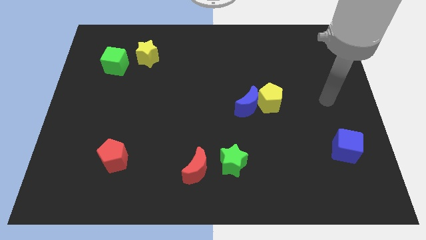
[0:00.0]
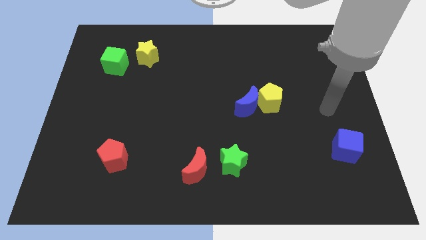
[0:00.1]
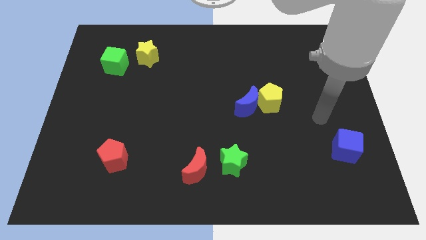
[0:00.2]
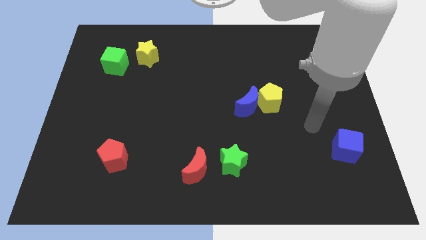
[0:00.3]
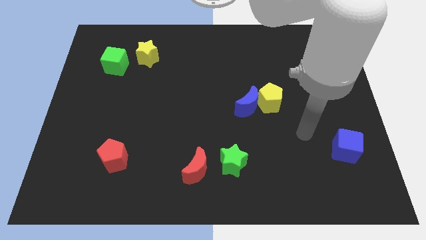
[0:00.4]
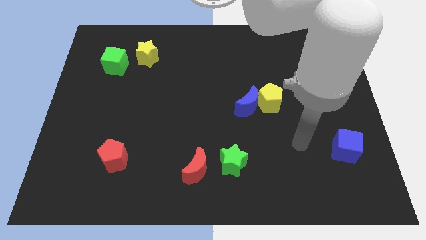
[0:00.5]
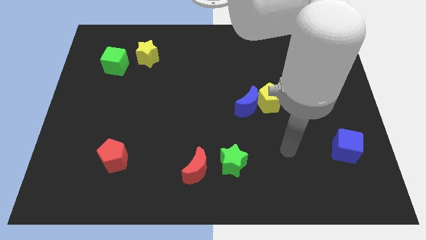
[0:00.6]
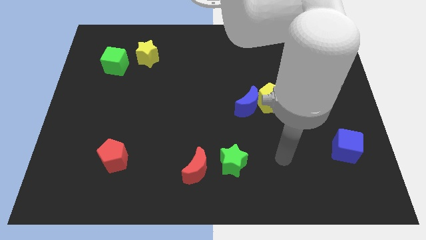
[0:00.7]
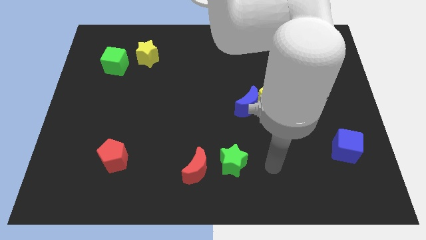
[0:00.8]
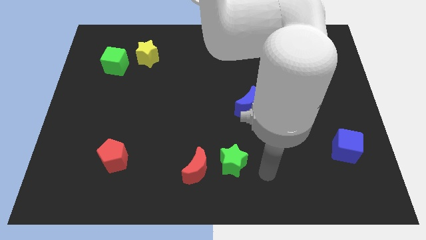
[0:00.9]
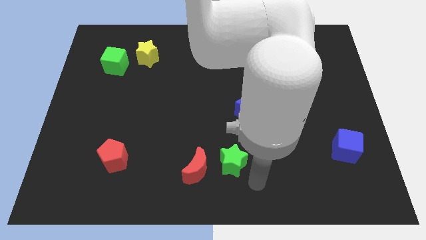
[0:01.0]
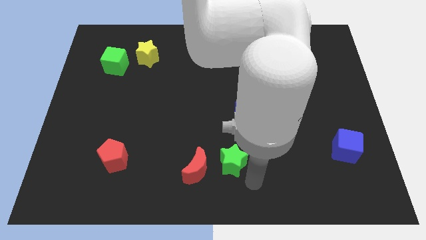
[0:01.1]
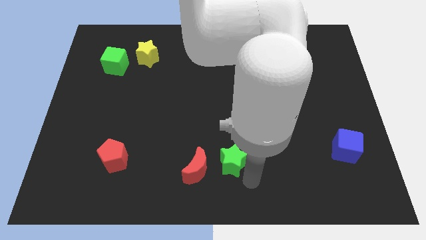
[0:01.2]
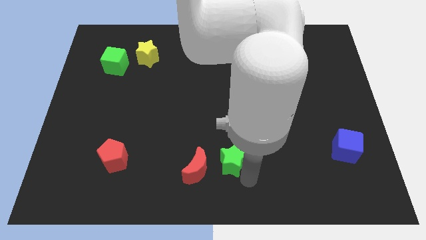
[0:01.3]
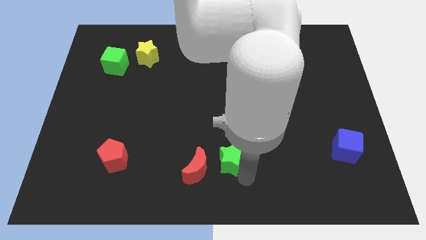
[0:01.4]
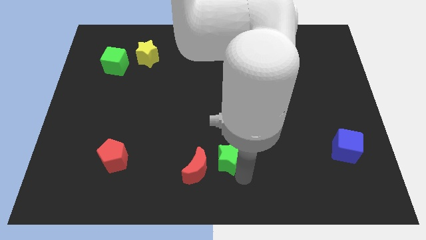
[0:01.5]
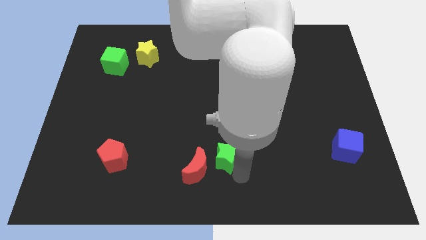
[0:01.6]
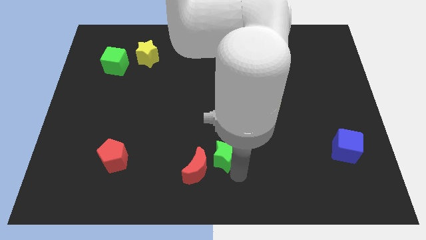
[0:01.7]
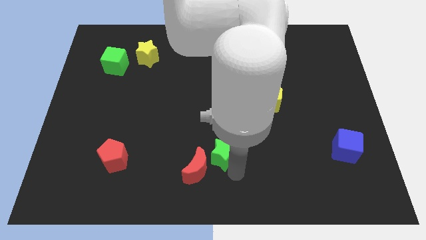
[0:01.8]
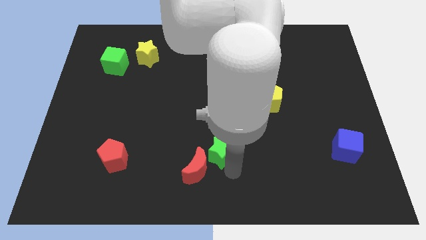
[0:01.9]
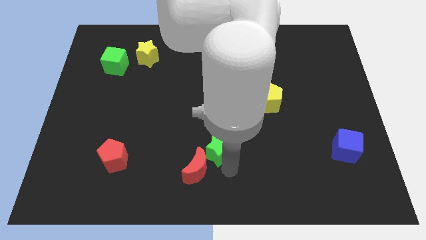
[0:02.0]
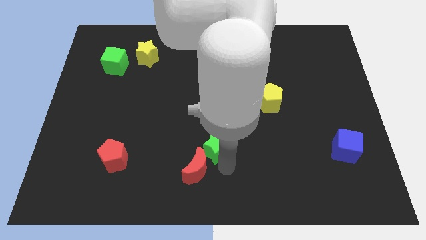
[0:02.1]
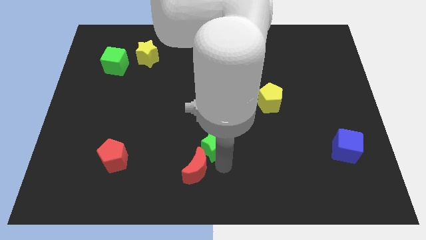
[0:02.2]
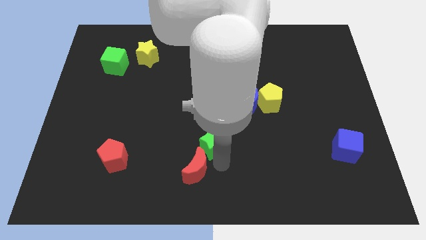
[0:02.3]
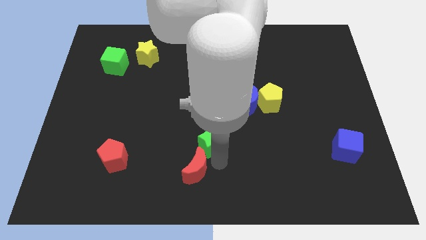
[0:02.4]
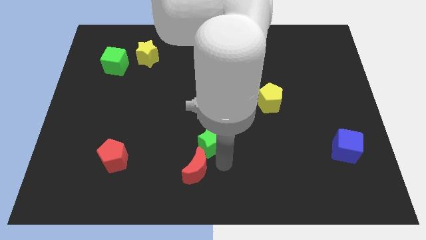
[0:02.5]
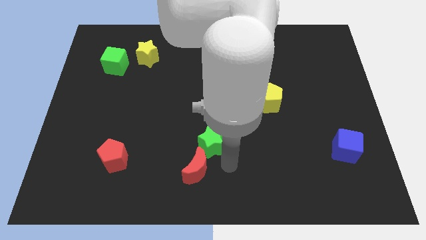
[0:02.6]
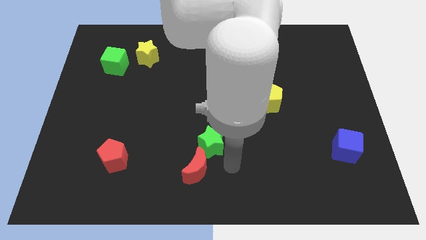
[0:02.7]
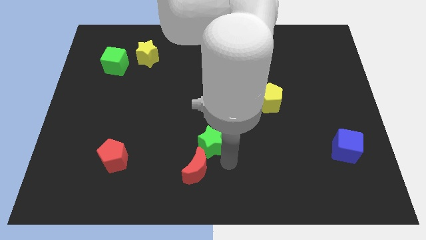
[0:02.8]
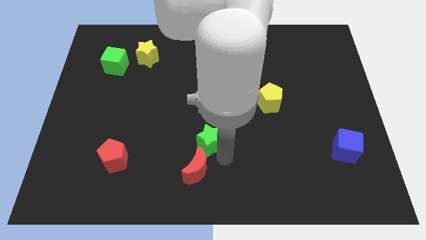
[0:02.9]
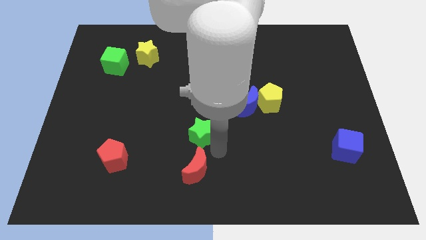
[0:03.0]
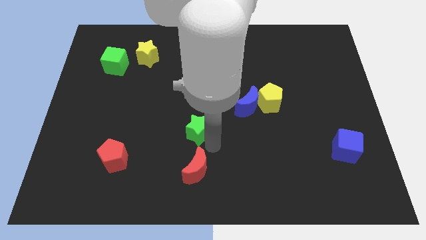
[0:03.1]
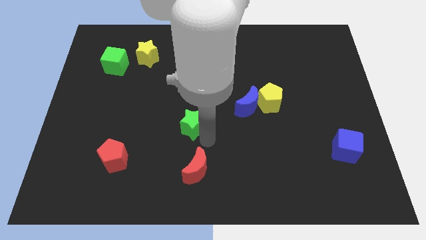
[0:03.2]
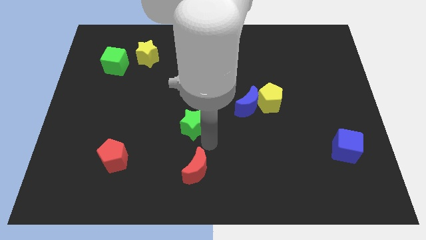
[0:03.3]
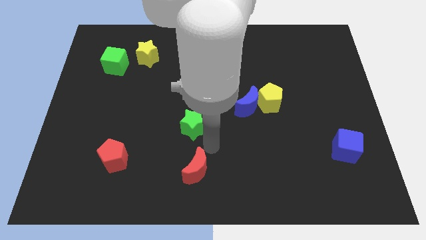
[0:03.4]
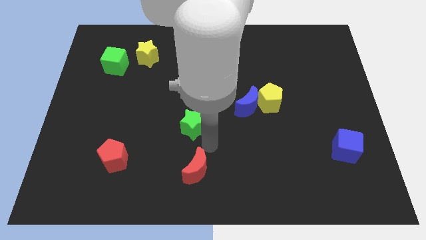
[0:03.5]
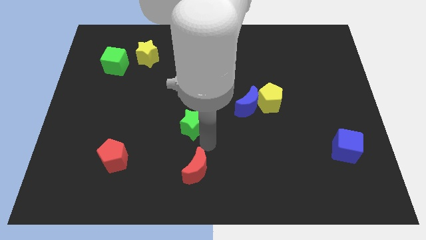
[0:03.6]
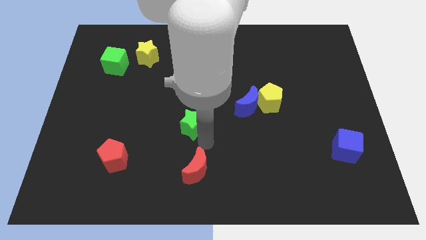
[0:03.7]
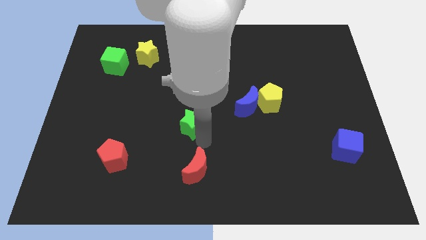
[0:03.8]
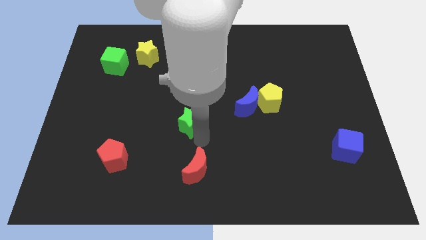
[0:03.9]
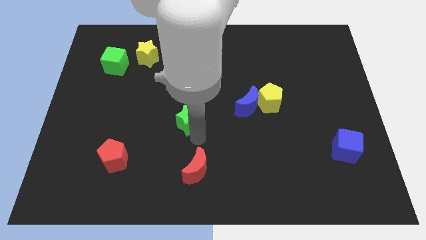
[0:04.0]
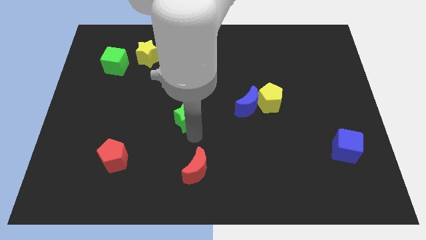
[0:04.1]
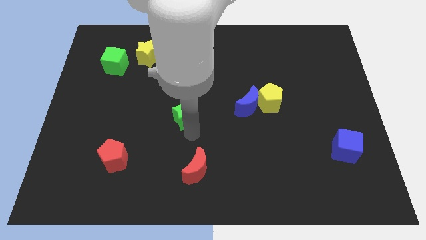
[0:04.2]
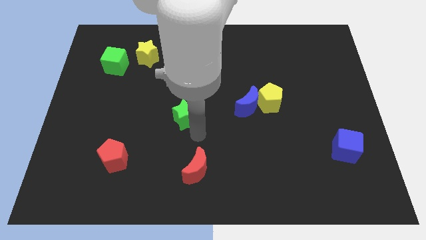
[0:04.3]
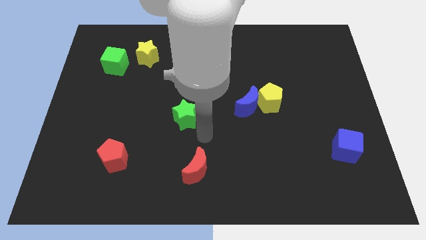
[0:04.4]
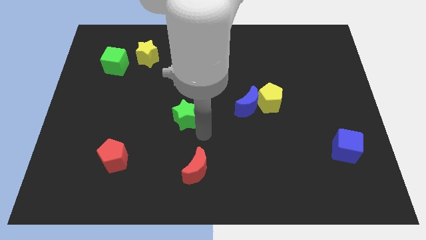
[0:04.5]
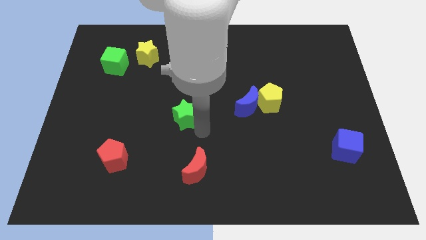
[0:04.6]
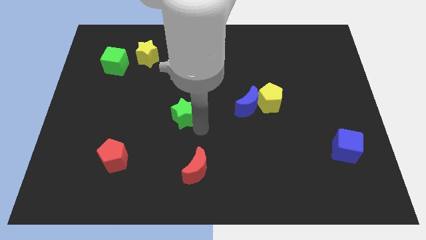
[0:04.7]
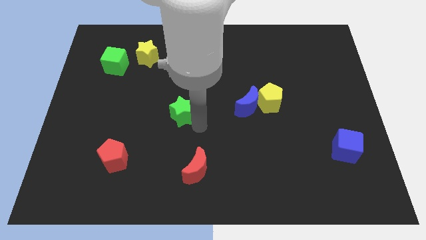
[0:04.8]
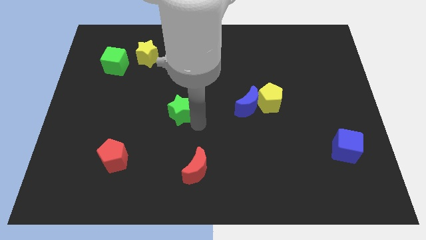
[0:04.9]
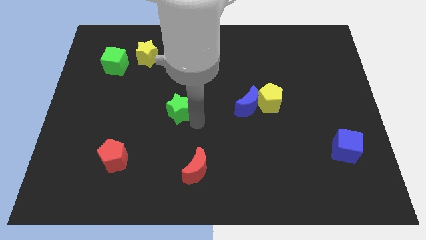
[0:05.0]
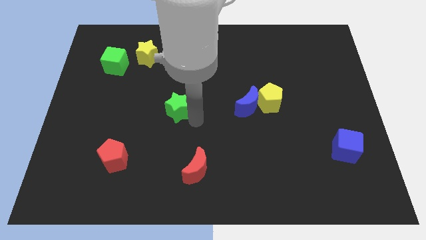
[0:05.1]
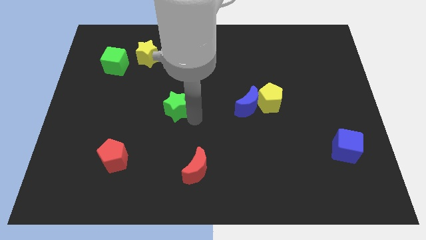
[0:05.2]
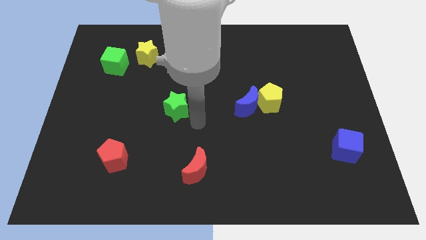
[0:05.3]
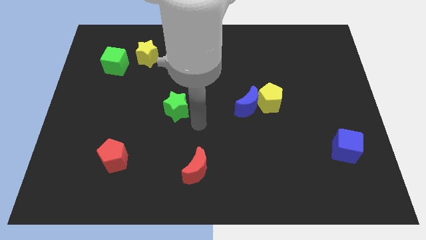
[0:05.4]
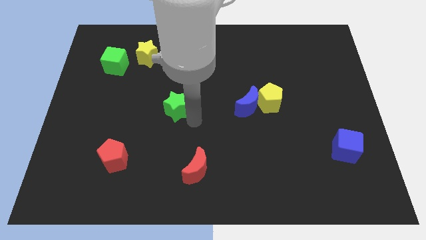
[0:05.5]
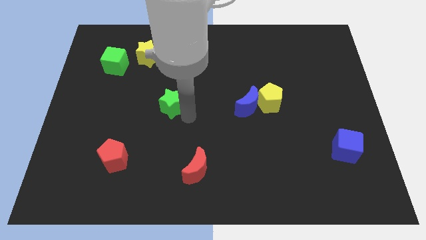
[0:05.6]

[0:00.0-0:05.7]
move the green star diagonally up and left

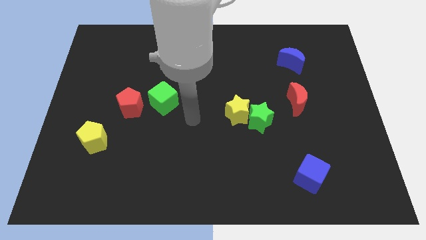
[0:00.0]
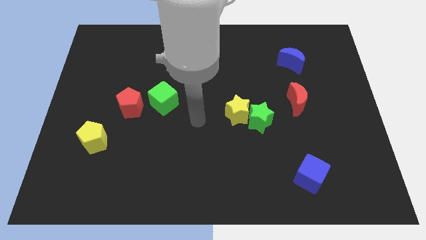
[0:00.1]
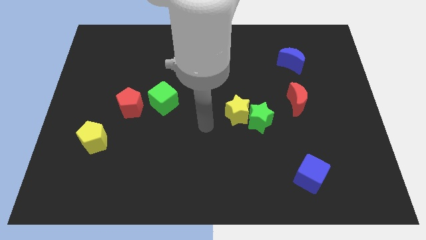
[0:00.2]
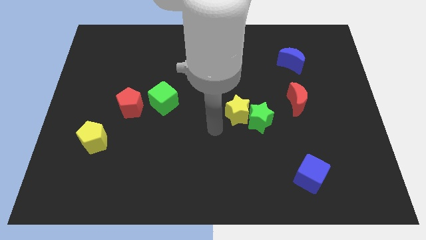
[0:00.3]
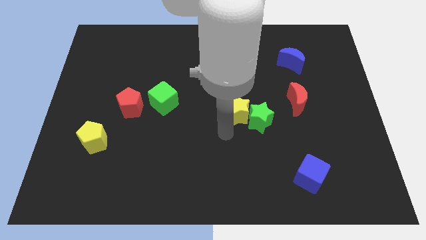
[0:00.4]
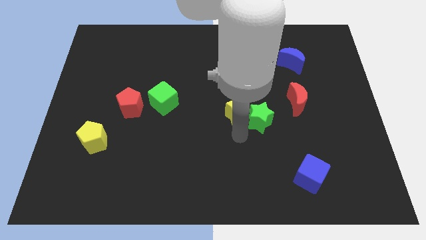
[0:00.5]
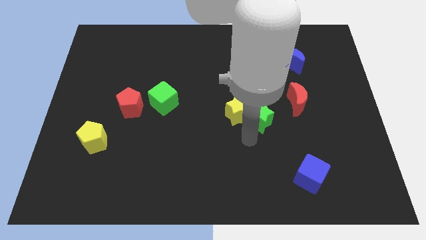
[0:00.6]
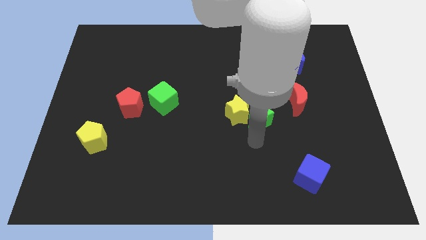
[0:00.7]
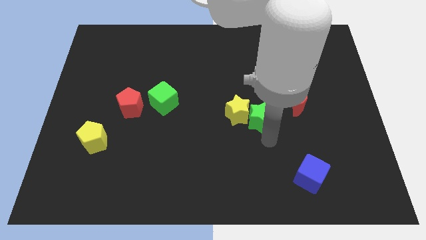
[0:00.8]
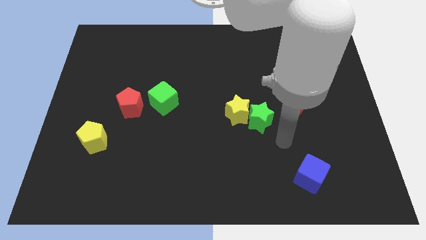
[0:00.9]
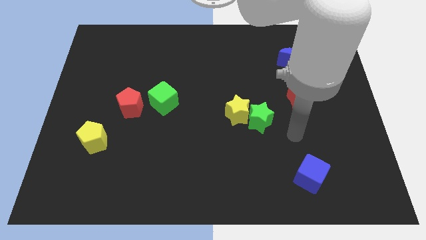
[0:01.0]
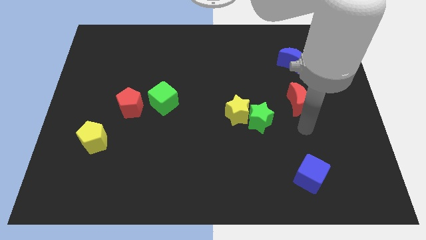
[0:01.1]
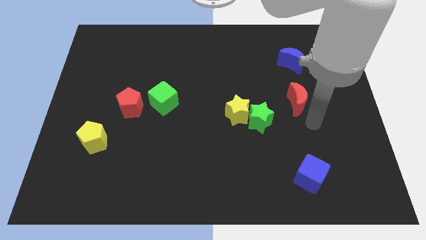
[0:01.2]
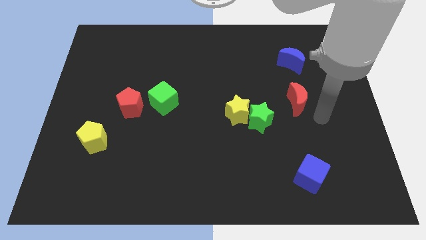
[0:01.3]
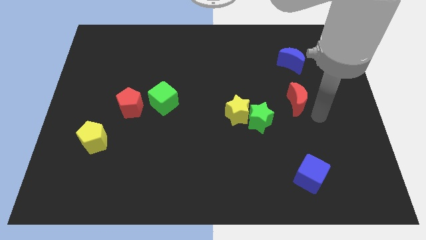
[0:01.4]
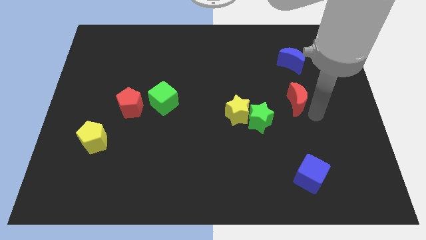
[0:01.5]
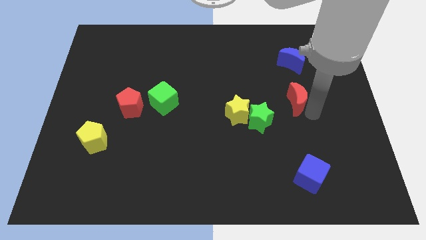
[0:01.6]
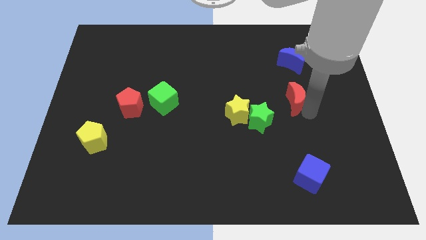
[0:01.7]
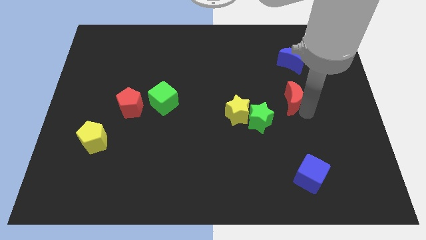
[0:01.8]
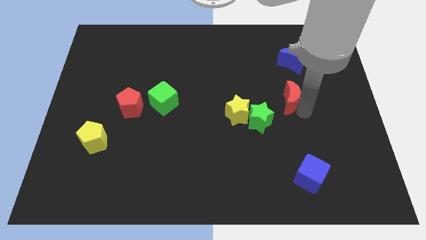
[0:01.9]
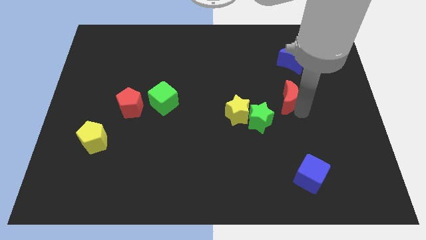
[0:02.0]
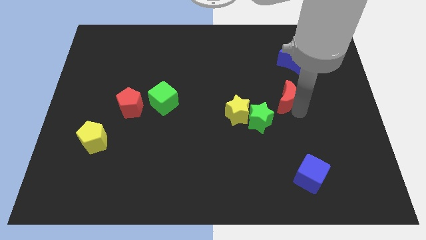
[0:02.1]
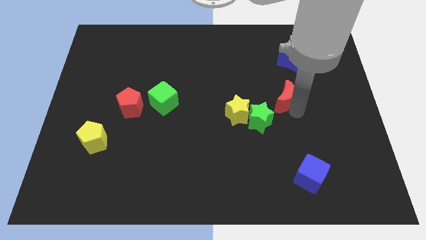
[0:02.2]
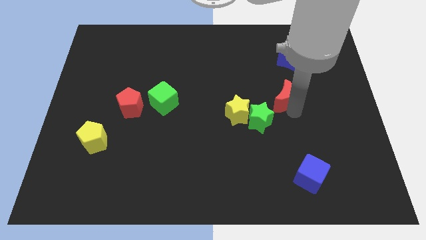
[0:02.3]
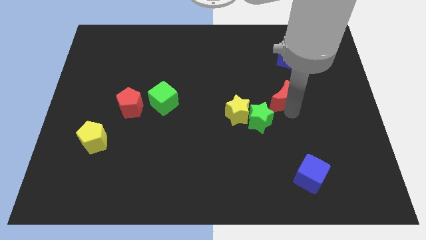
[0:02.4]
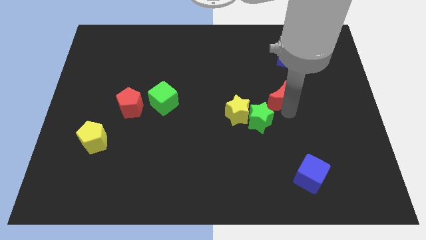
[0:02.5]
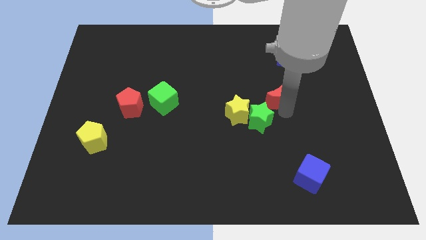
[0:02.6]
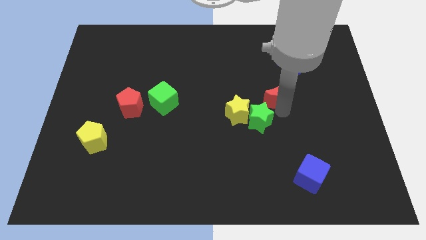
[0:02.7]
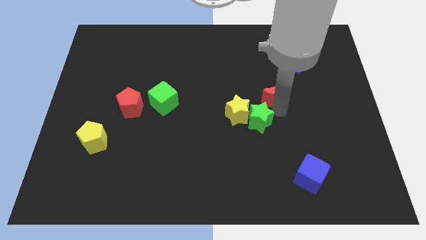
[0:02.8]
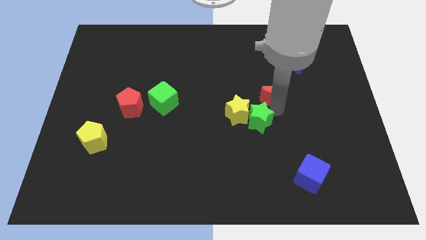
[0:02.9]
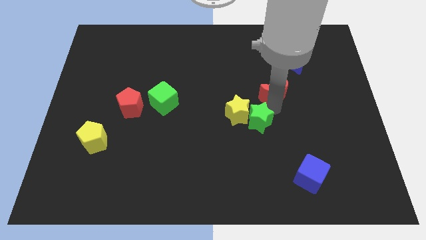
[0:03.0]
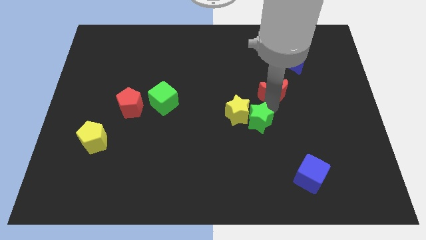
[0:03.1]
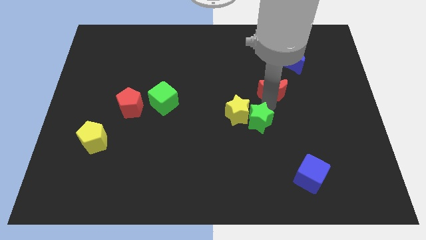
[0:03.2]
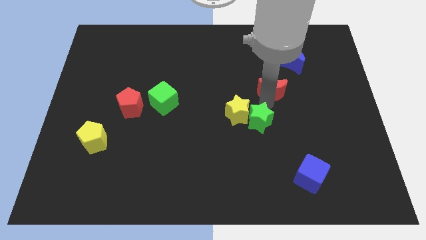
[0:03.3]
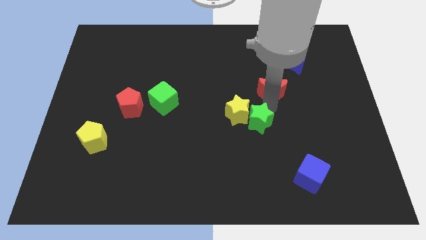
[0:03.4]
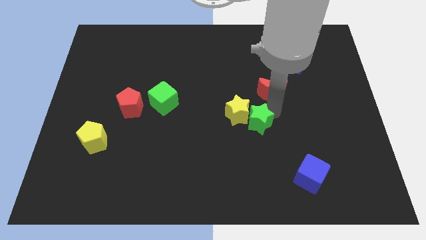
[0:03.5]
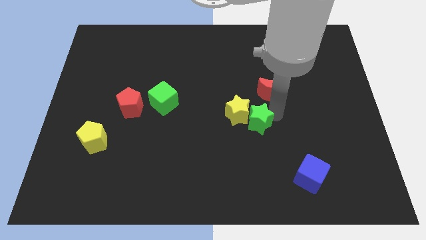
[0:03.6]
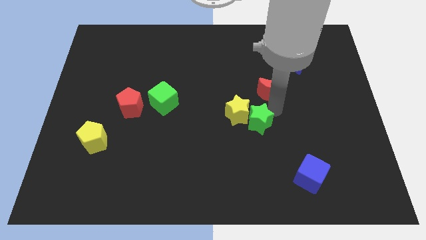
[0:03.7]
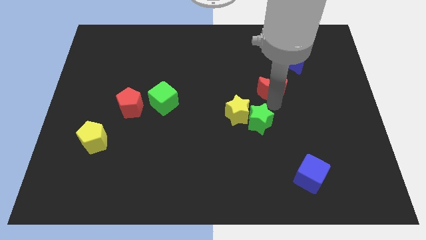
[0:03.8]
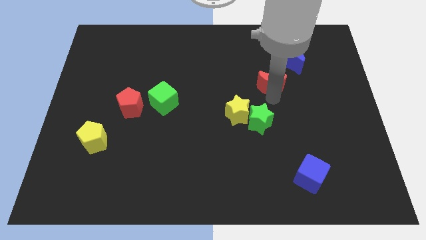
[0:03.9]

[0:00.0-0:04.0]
push the red moon upwards and left diagonally a little bit
